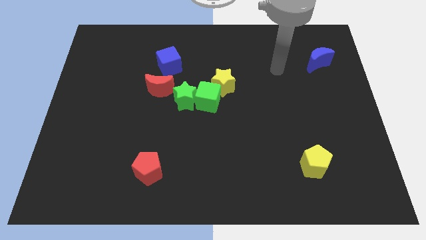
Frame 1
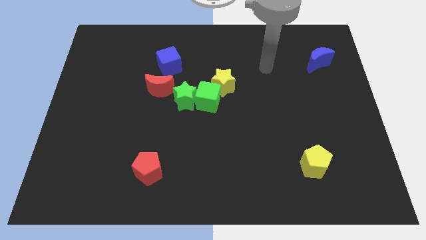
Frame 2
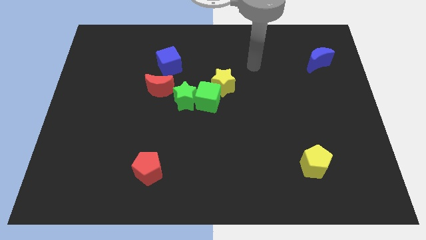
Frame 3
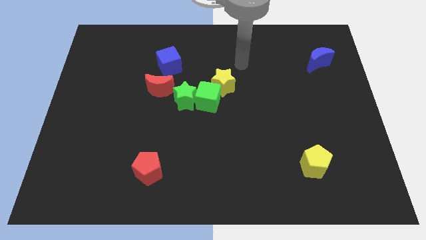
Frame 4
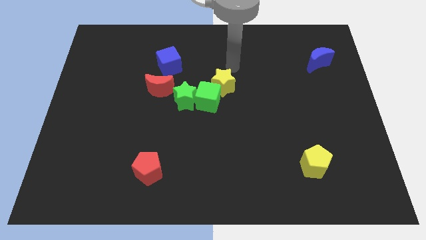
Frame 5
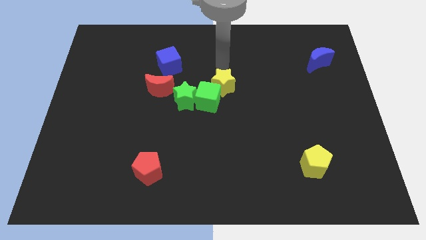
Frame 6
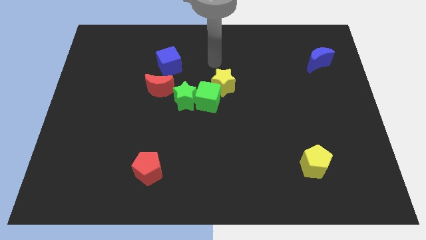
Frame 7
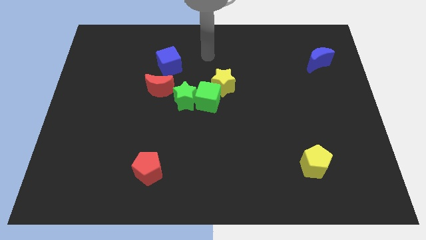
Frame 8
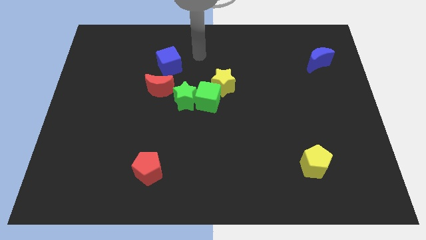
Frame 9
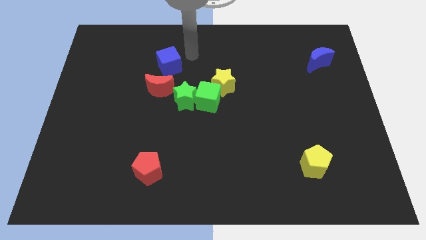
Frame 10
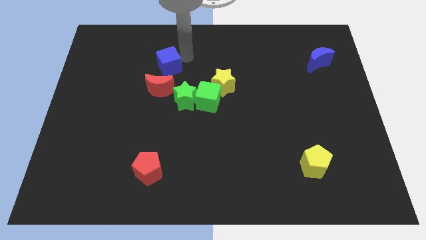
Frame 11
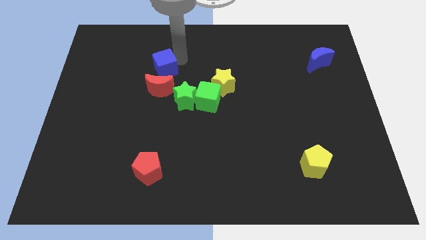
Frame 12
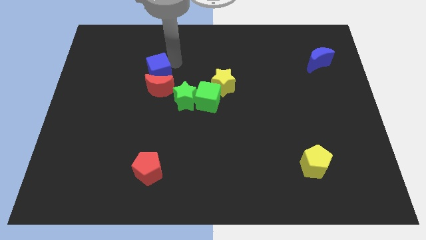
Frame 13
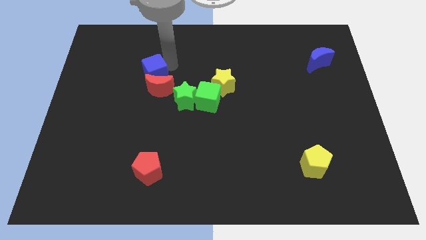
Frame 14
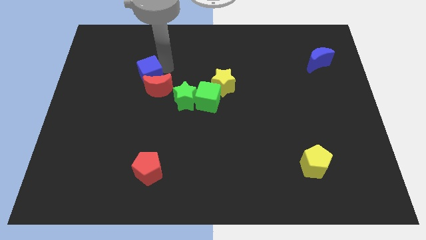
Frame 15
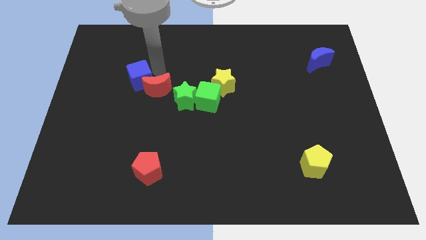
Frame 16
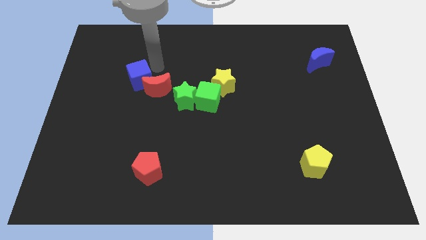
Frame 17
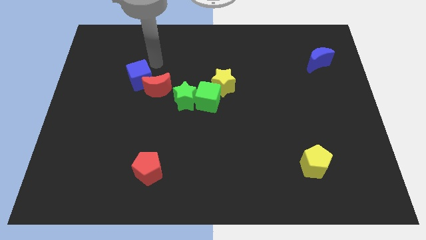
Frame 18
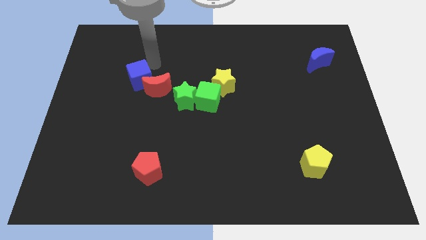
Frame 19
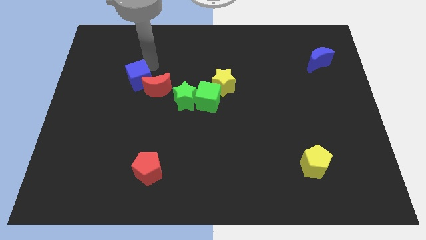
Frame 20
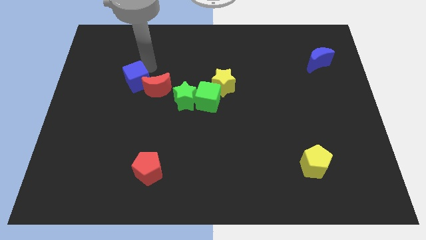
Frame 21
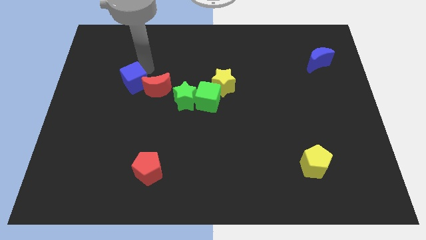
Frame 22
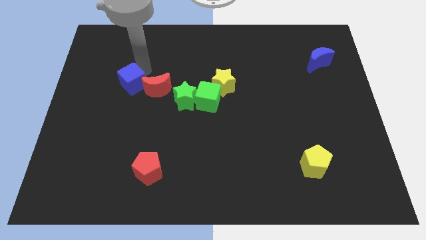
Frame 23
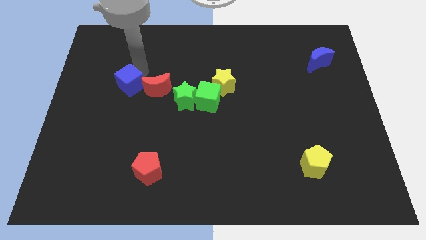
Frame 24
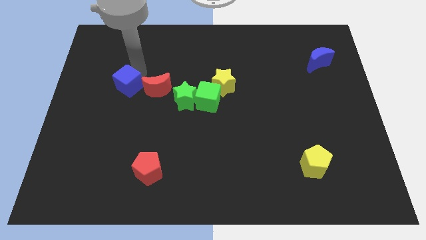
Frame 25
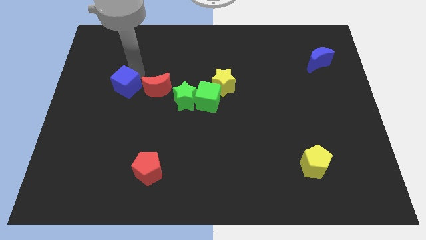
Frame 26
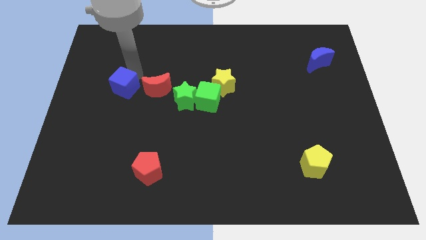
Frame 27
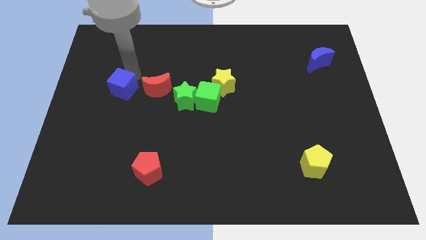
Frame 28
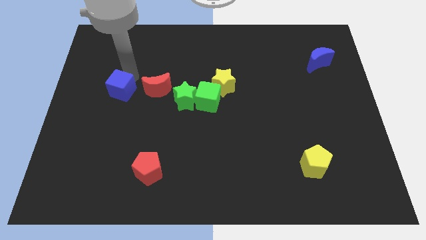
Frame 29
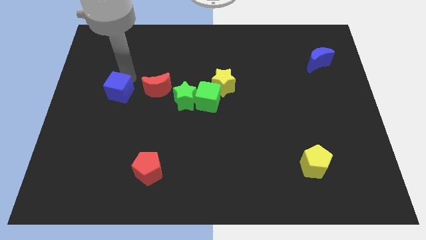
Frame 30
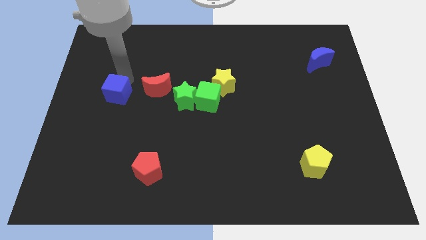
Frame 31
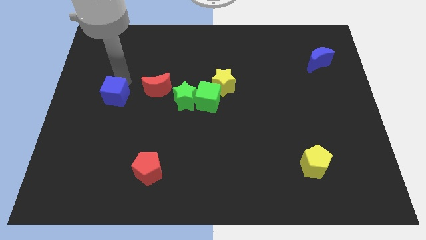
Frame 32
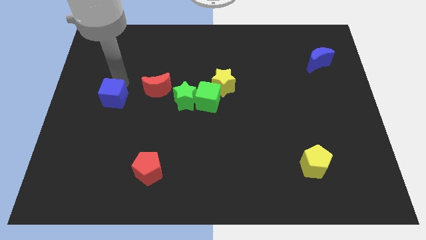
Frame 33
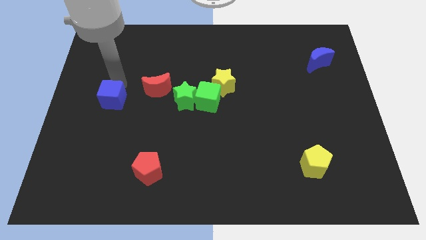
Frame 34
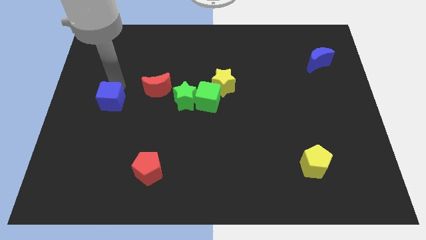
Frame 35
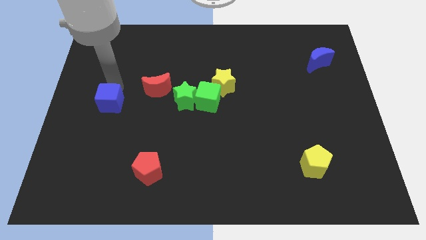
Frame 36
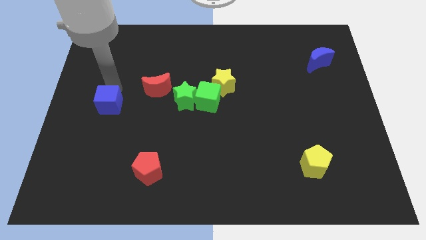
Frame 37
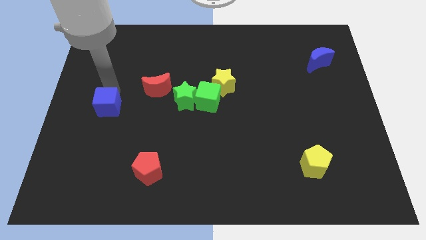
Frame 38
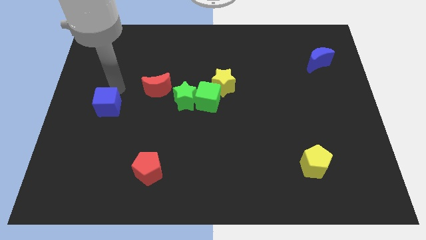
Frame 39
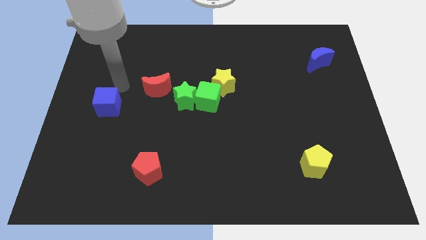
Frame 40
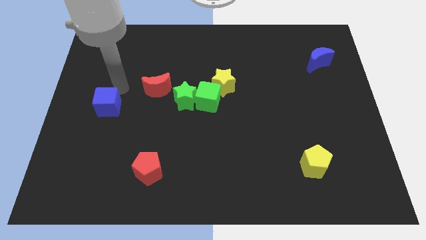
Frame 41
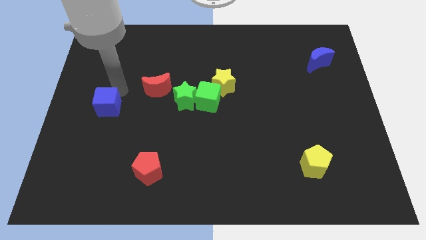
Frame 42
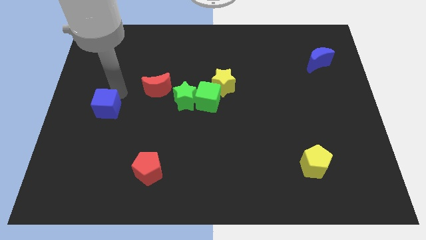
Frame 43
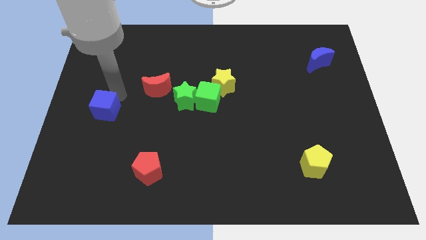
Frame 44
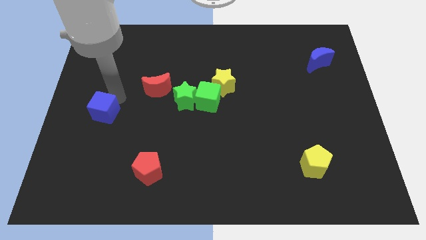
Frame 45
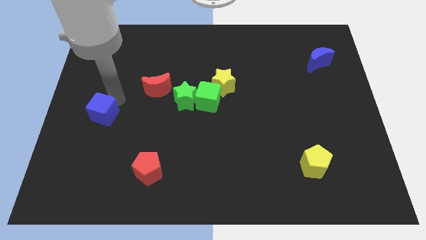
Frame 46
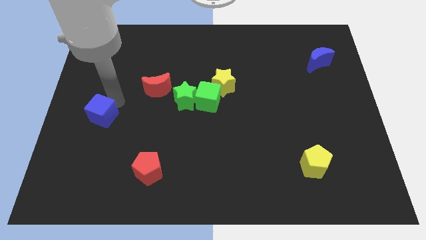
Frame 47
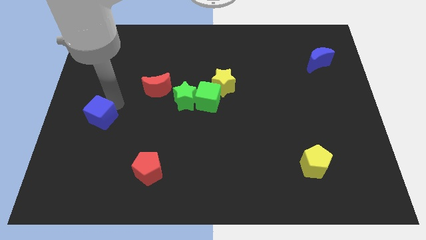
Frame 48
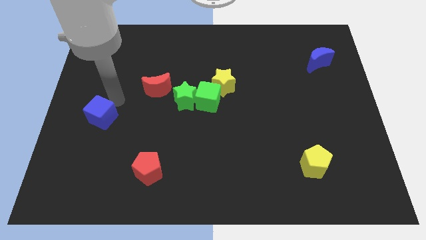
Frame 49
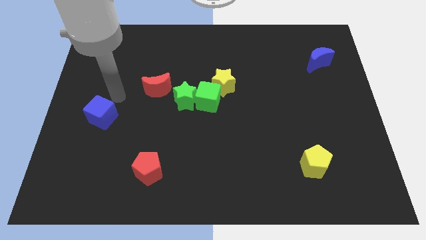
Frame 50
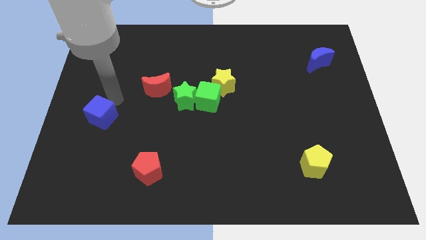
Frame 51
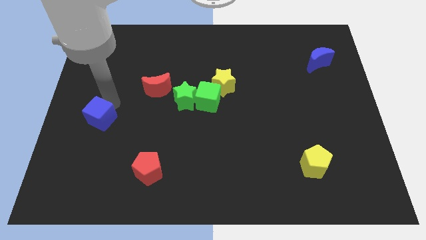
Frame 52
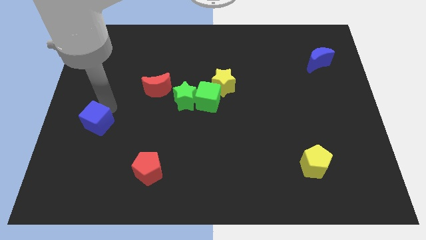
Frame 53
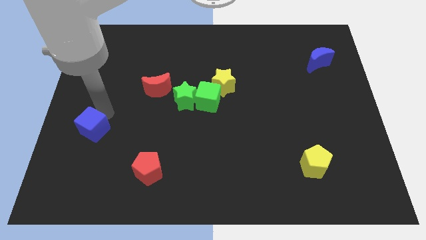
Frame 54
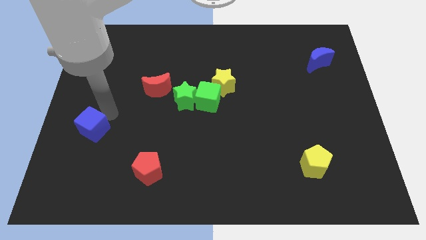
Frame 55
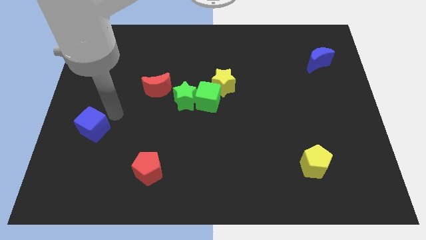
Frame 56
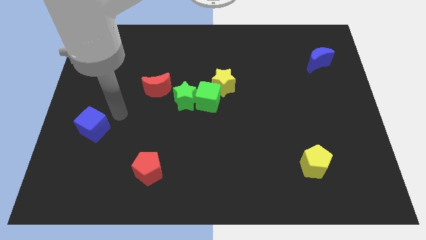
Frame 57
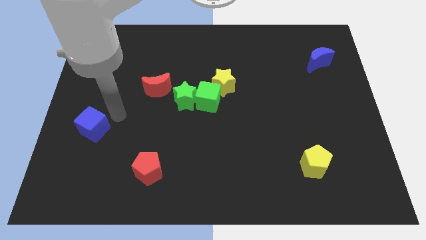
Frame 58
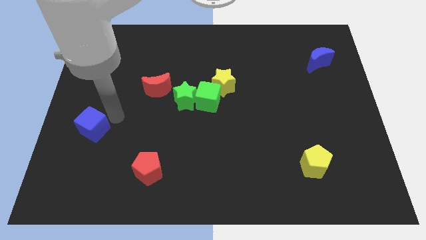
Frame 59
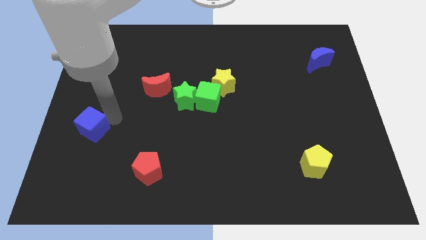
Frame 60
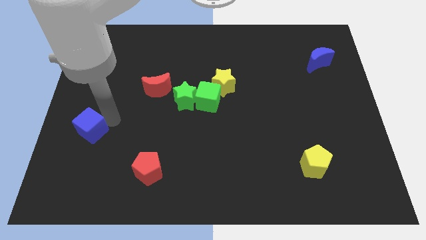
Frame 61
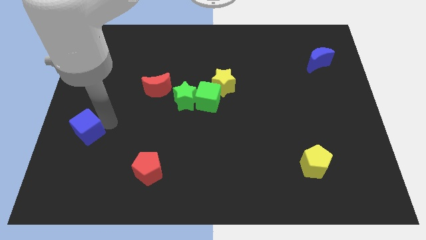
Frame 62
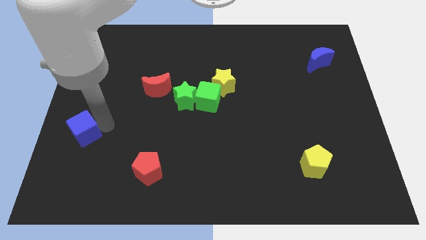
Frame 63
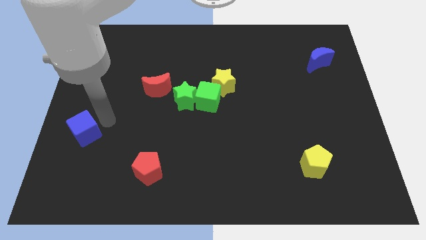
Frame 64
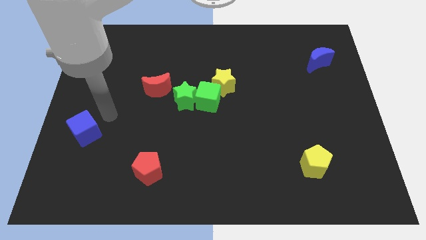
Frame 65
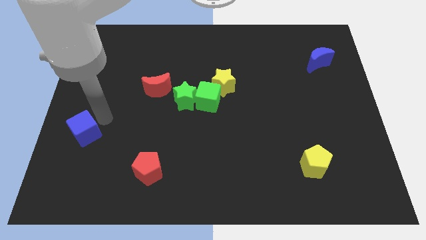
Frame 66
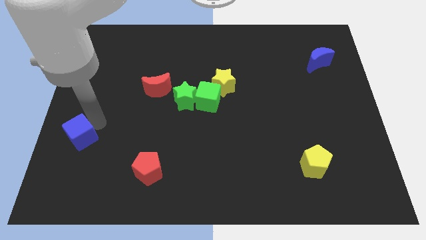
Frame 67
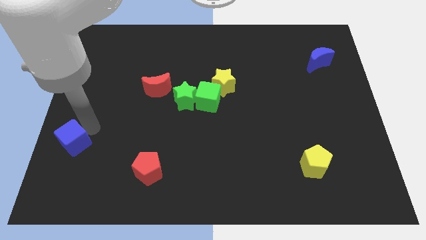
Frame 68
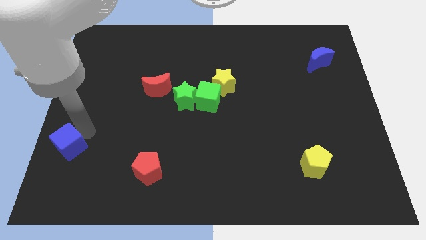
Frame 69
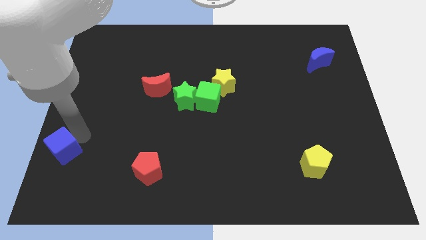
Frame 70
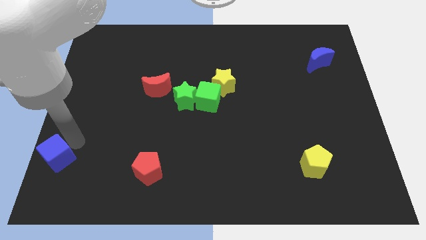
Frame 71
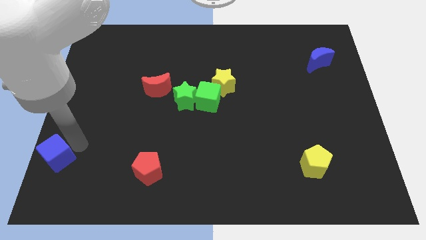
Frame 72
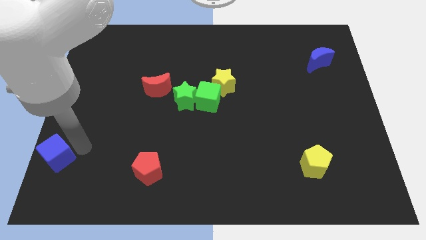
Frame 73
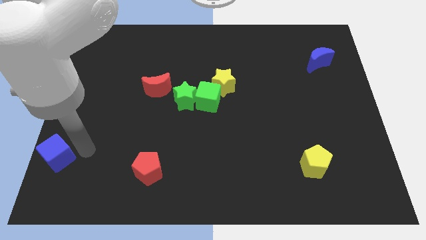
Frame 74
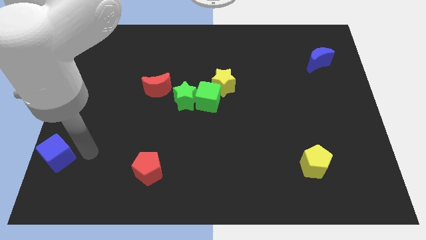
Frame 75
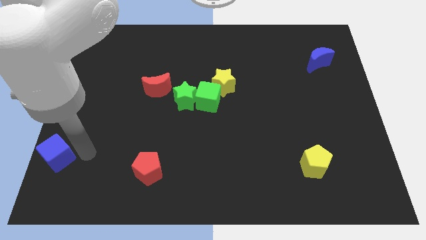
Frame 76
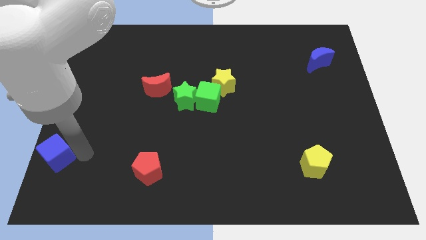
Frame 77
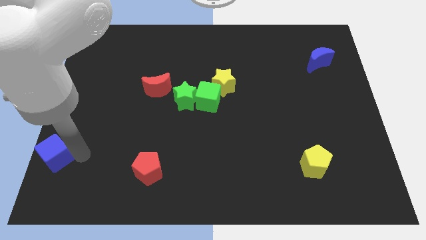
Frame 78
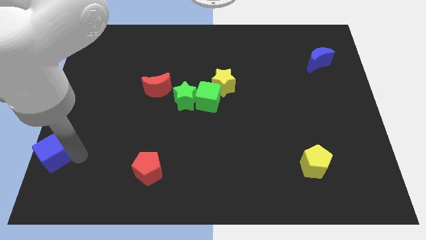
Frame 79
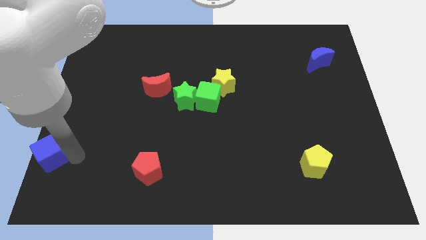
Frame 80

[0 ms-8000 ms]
put the blue cube to the bottom left corner
